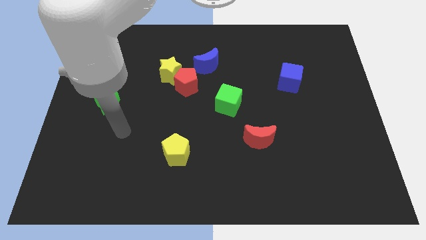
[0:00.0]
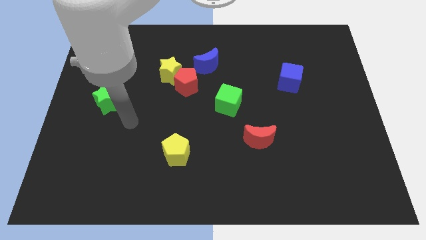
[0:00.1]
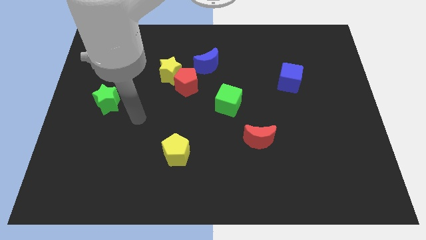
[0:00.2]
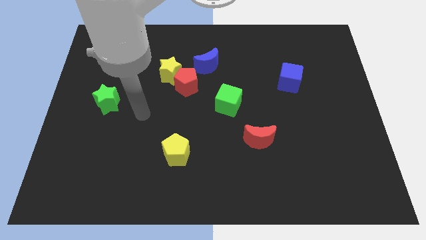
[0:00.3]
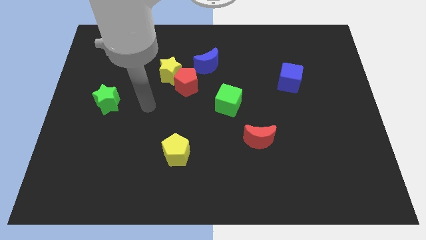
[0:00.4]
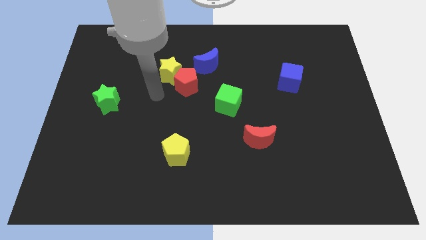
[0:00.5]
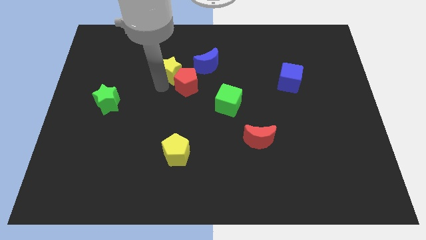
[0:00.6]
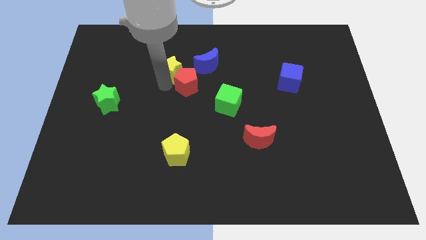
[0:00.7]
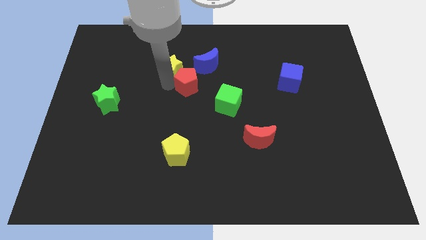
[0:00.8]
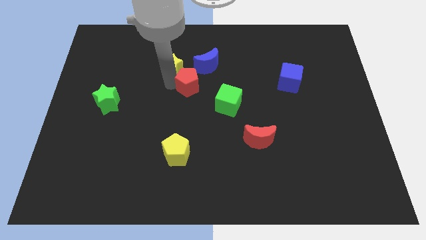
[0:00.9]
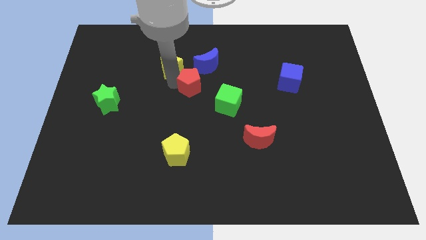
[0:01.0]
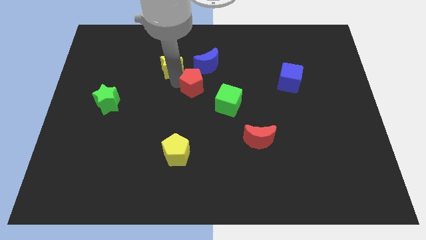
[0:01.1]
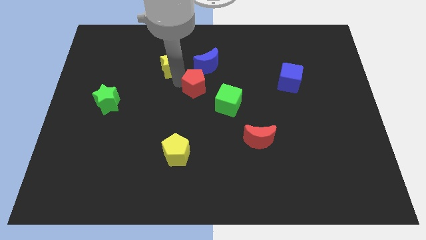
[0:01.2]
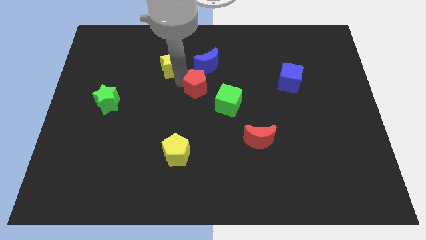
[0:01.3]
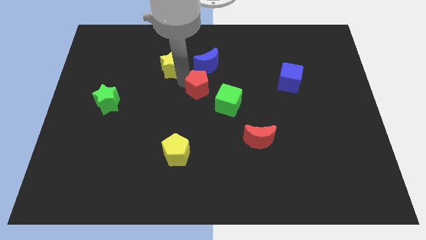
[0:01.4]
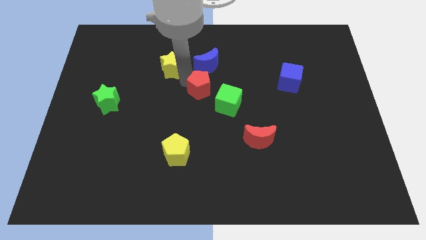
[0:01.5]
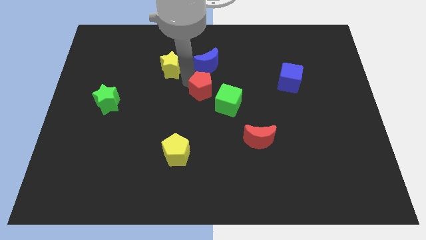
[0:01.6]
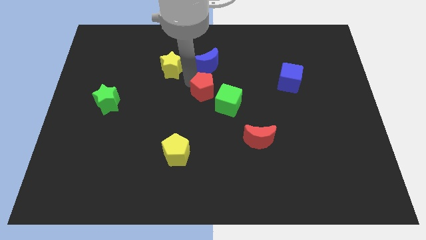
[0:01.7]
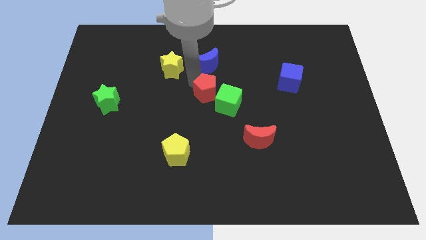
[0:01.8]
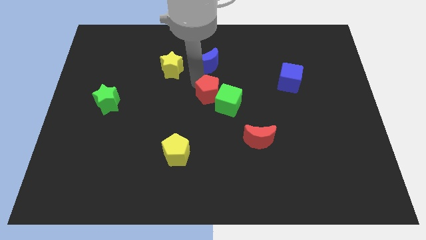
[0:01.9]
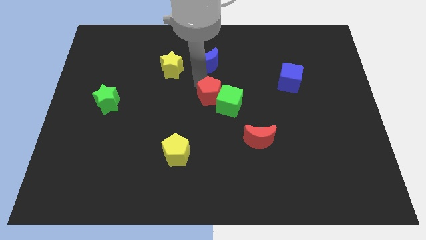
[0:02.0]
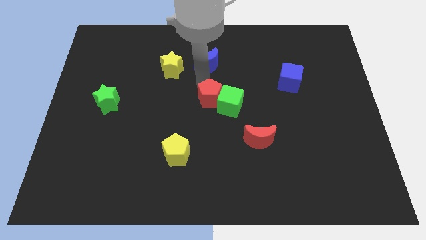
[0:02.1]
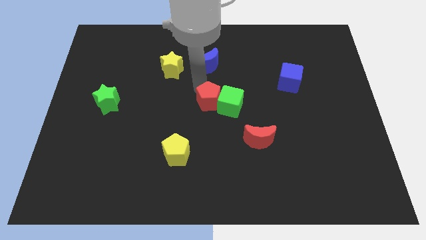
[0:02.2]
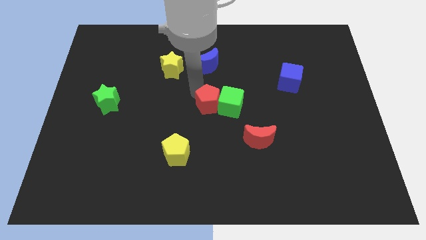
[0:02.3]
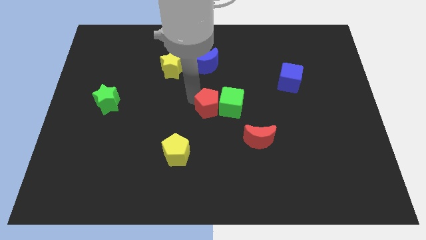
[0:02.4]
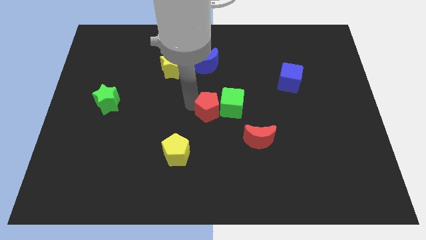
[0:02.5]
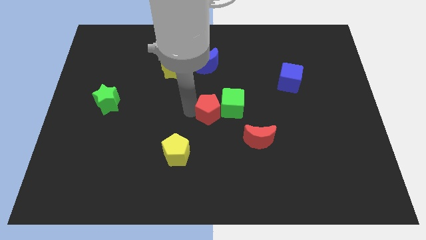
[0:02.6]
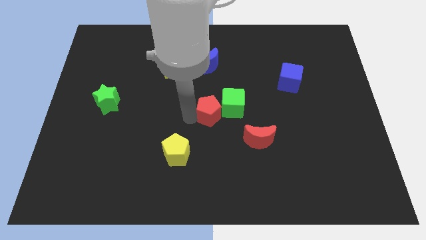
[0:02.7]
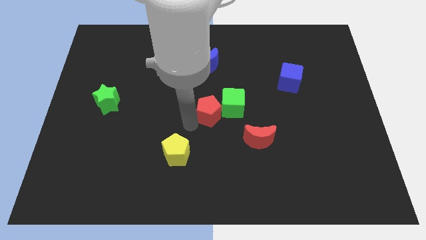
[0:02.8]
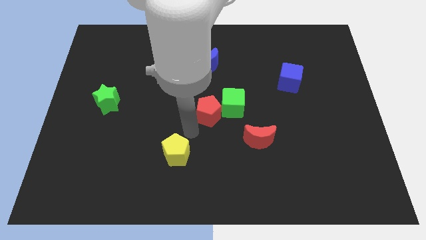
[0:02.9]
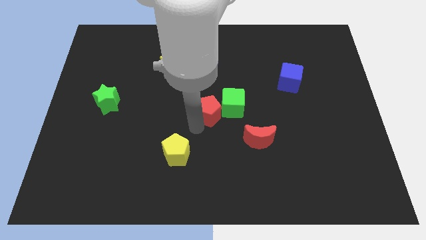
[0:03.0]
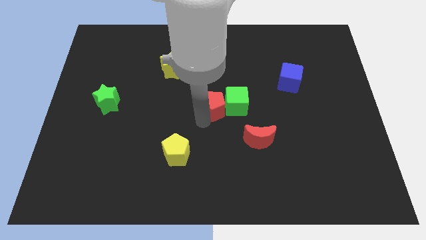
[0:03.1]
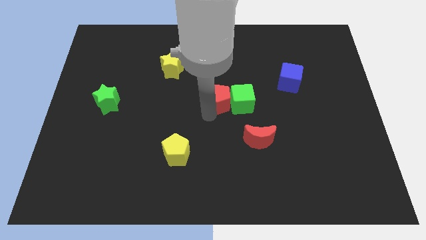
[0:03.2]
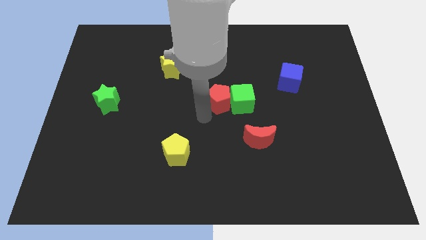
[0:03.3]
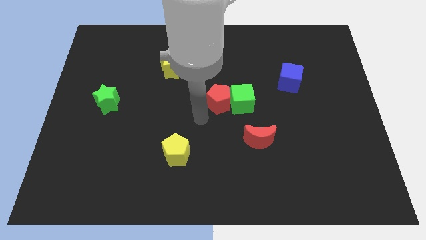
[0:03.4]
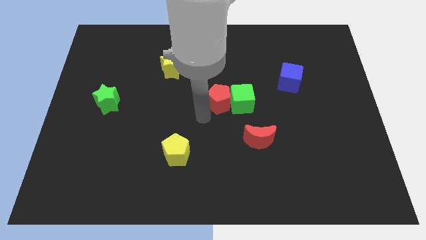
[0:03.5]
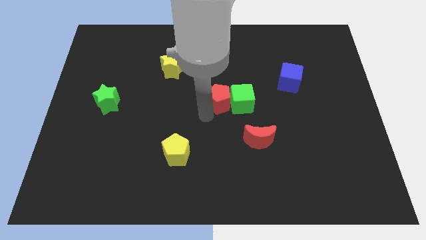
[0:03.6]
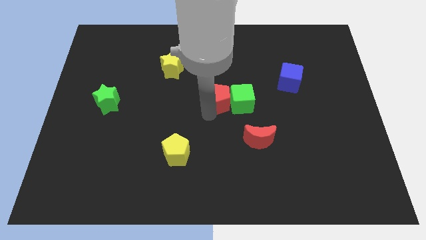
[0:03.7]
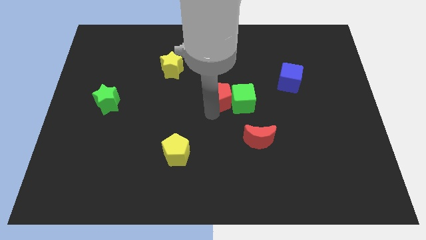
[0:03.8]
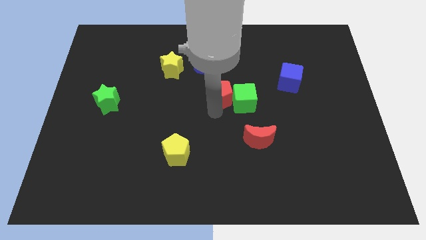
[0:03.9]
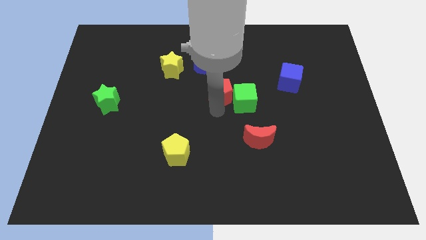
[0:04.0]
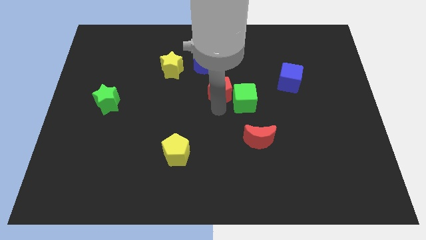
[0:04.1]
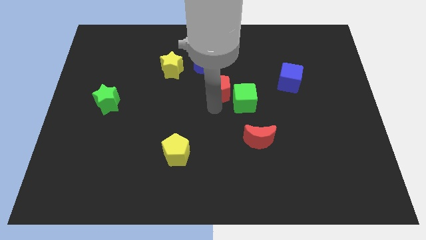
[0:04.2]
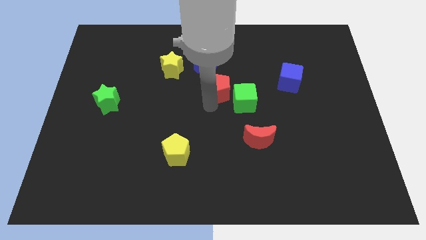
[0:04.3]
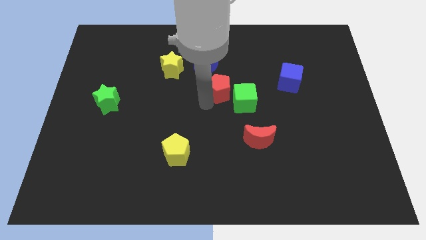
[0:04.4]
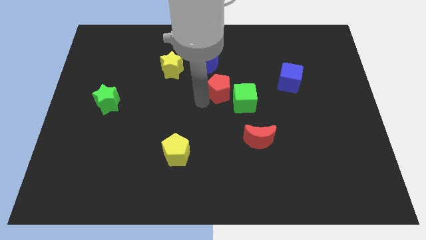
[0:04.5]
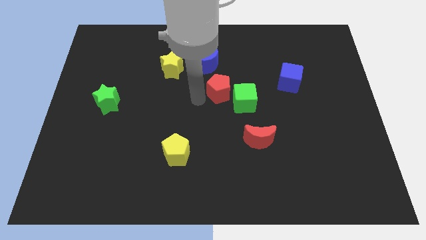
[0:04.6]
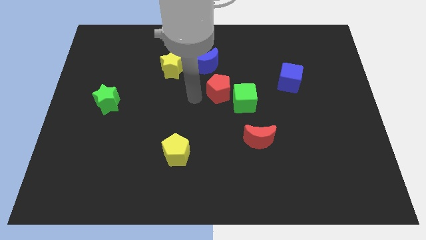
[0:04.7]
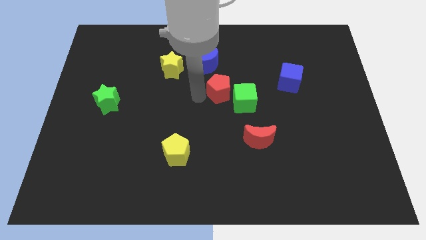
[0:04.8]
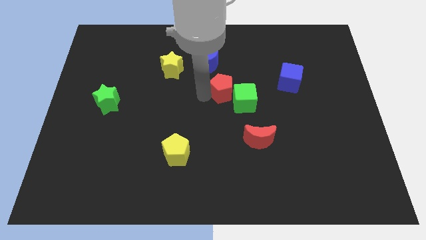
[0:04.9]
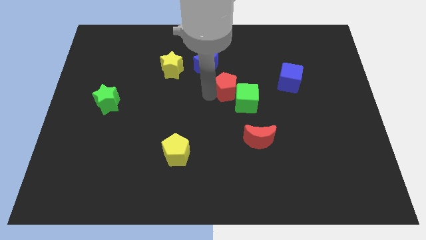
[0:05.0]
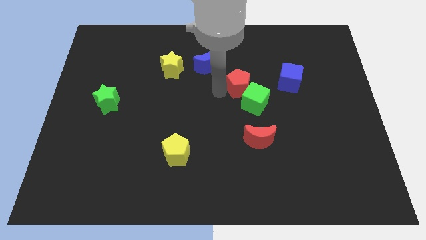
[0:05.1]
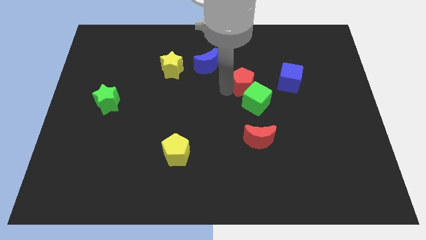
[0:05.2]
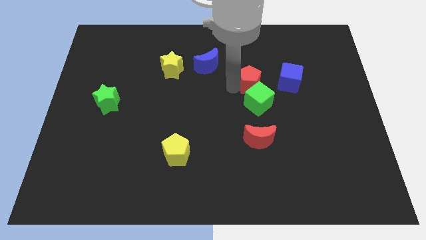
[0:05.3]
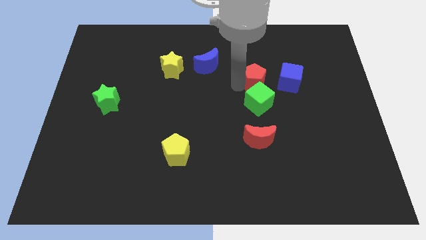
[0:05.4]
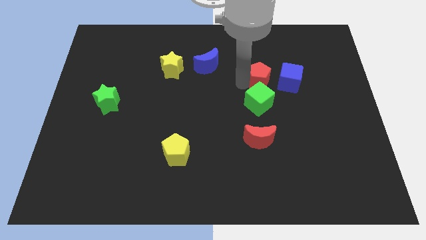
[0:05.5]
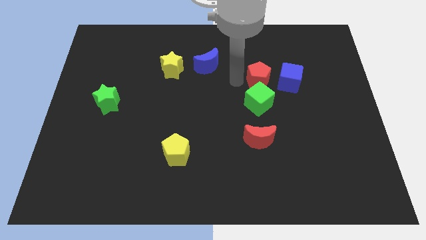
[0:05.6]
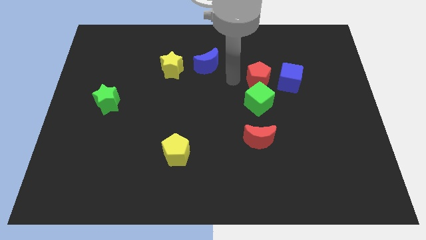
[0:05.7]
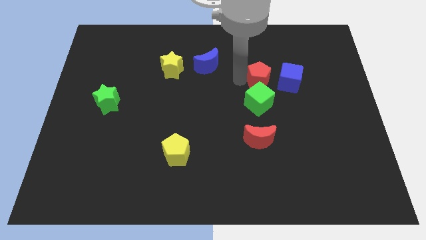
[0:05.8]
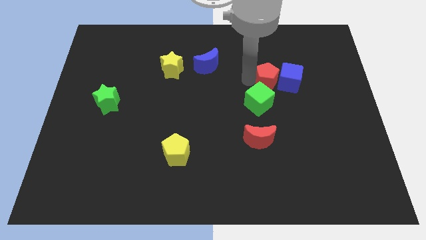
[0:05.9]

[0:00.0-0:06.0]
move the red pentagon next to the blue cube

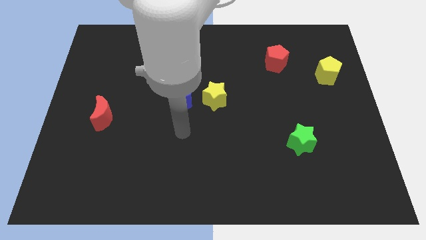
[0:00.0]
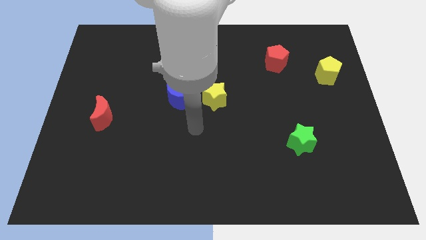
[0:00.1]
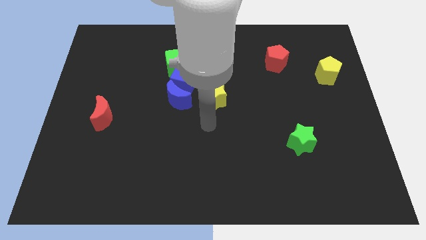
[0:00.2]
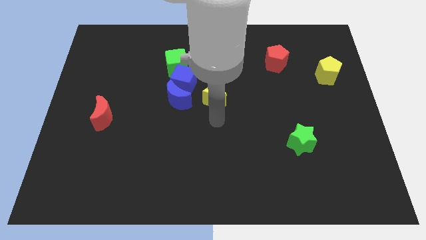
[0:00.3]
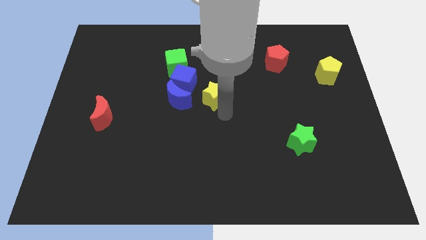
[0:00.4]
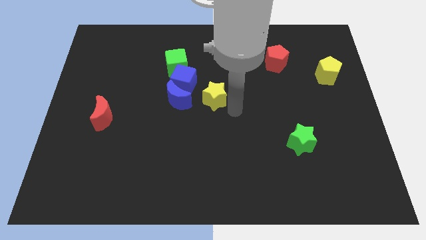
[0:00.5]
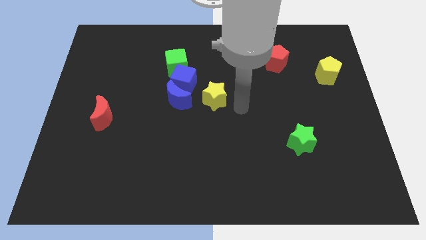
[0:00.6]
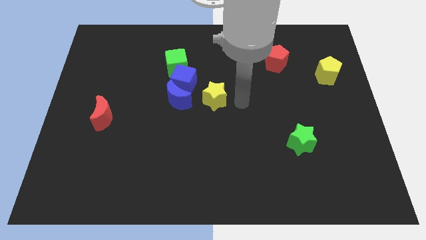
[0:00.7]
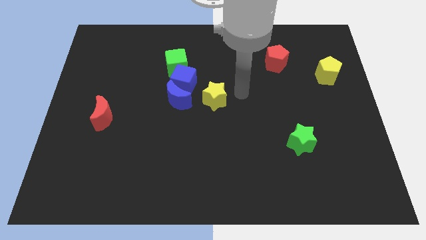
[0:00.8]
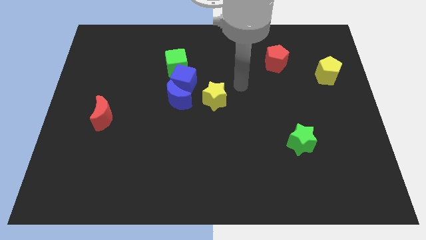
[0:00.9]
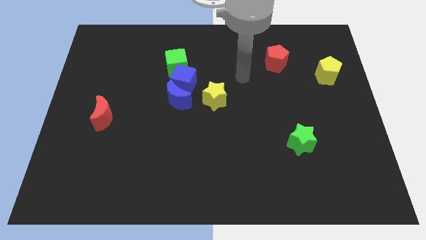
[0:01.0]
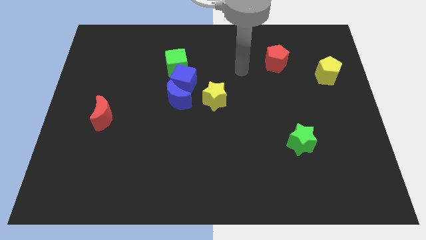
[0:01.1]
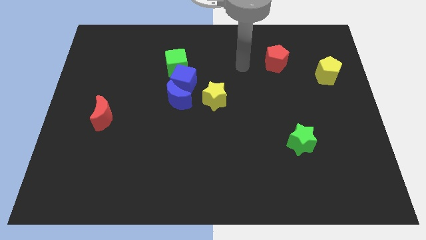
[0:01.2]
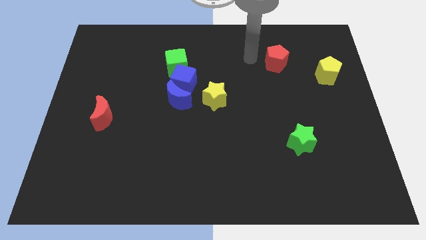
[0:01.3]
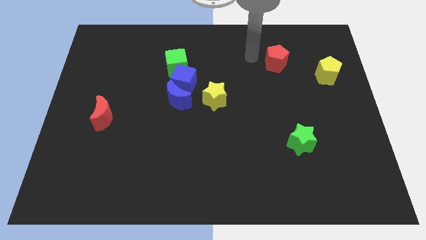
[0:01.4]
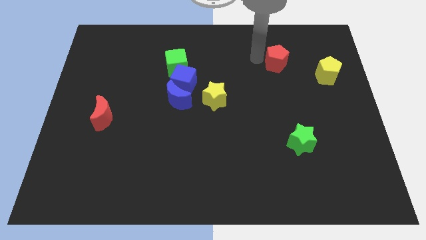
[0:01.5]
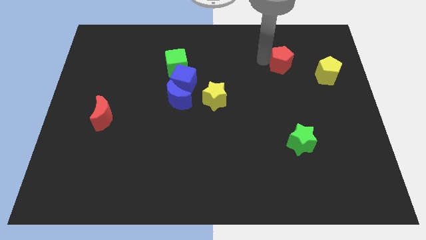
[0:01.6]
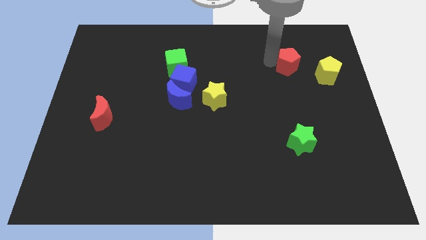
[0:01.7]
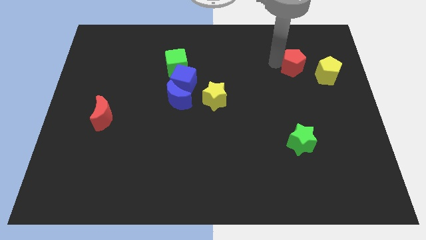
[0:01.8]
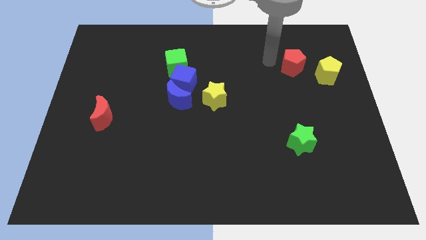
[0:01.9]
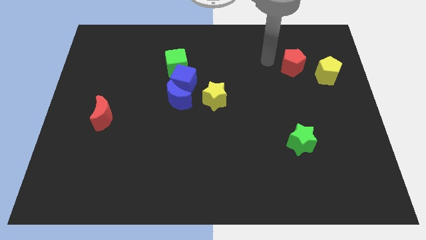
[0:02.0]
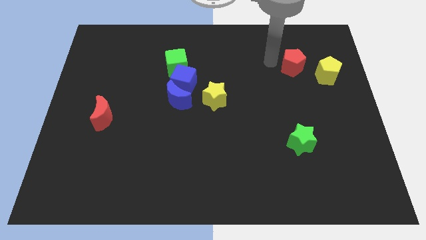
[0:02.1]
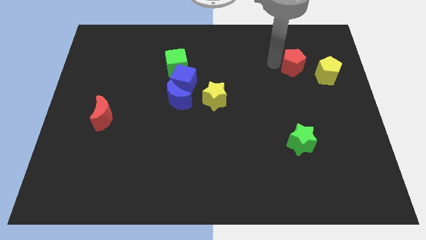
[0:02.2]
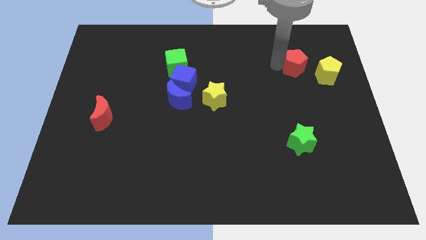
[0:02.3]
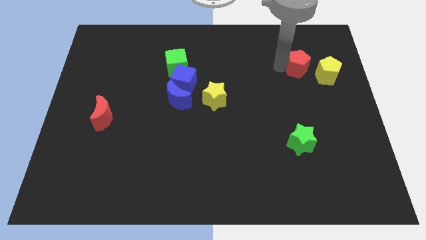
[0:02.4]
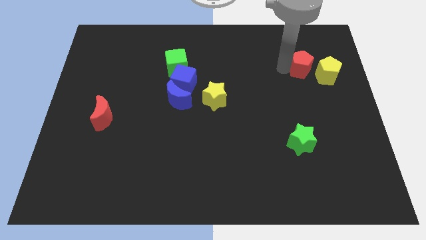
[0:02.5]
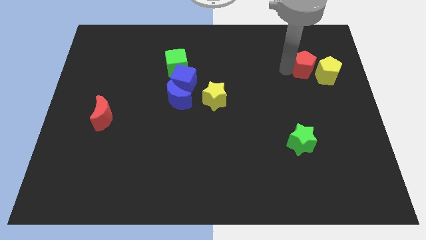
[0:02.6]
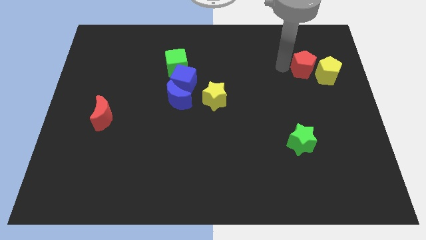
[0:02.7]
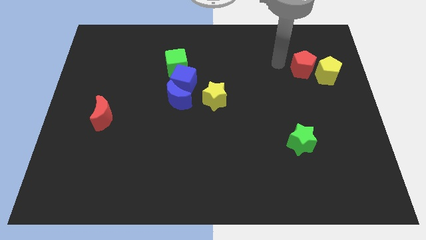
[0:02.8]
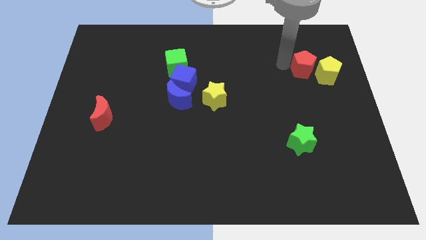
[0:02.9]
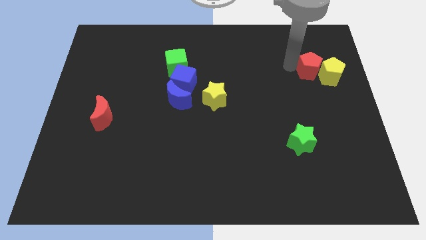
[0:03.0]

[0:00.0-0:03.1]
slide the red pentagon next to the yellow pentagon
